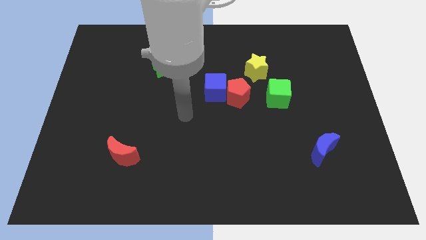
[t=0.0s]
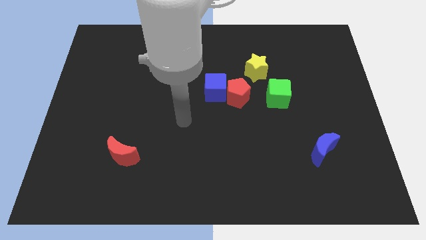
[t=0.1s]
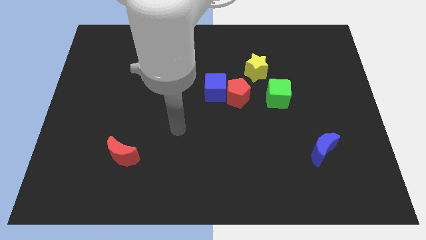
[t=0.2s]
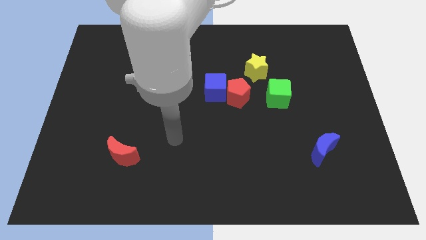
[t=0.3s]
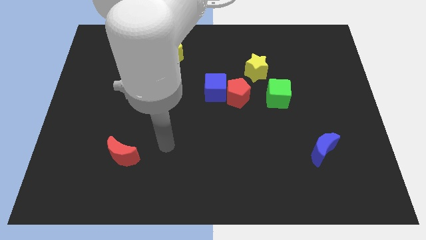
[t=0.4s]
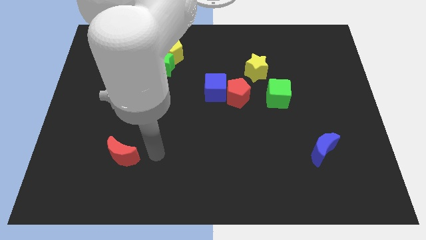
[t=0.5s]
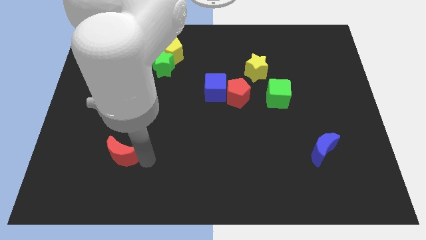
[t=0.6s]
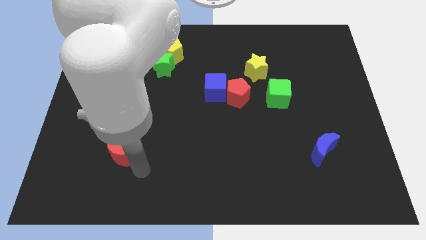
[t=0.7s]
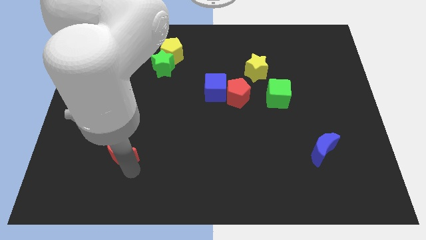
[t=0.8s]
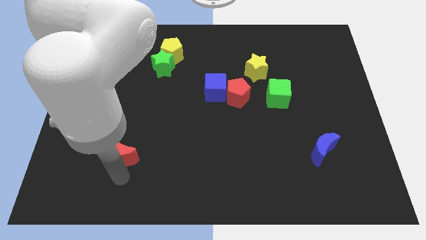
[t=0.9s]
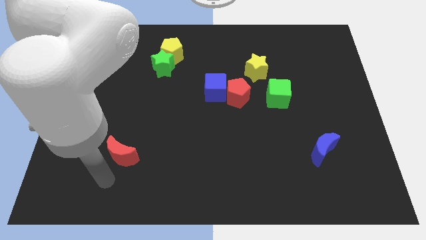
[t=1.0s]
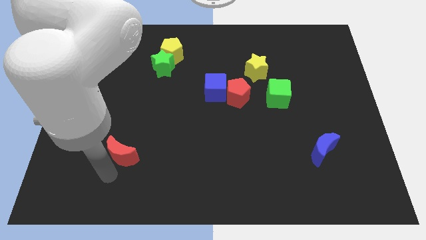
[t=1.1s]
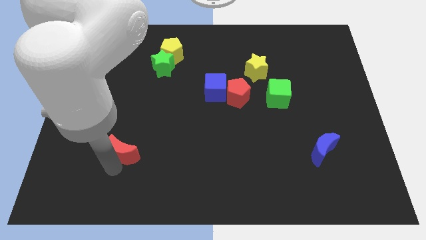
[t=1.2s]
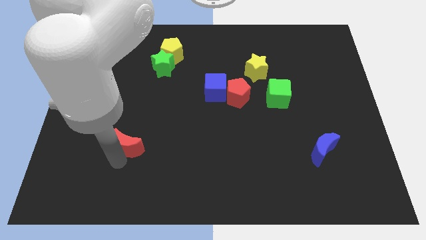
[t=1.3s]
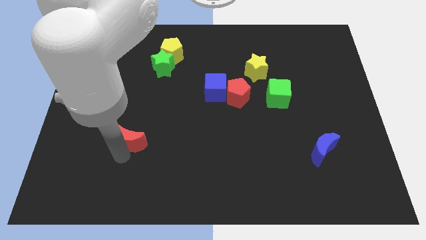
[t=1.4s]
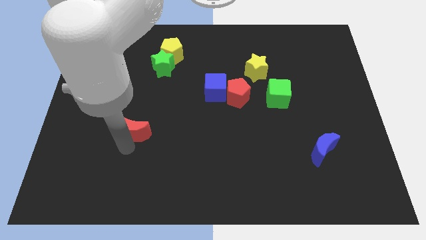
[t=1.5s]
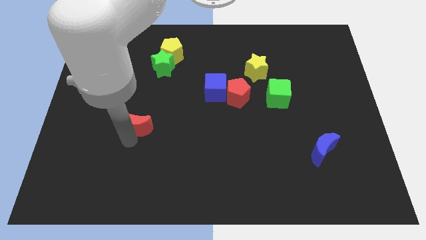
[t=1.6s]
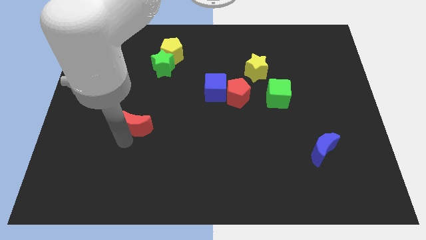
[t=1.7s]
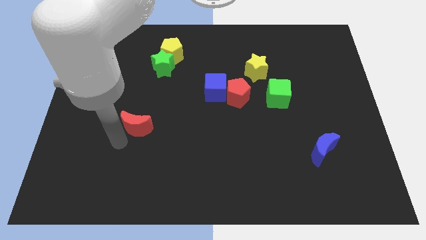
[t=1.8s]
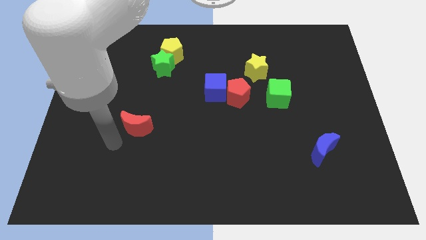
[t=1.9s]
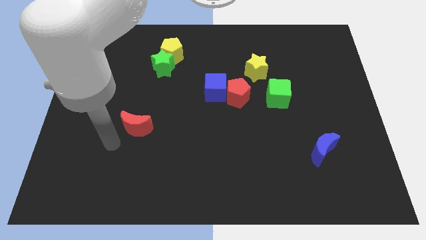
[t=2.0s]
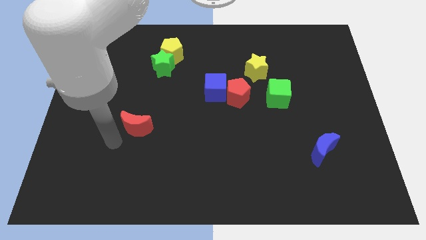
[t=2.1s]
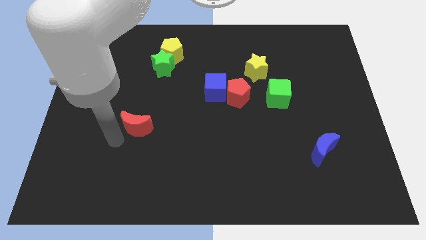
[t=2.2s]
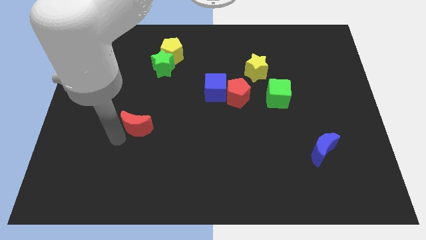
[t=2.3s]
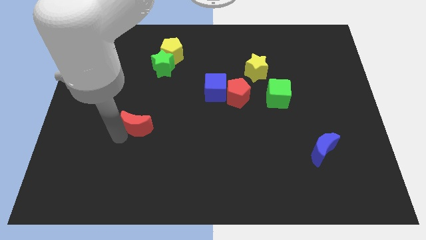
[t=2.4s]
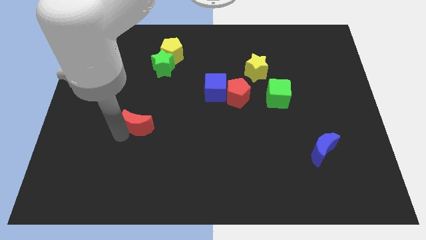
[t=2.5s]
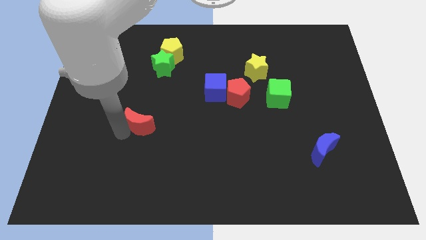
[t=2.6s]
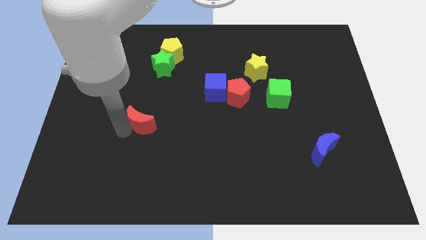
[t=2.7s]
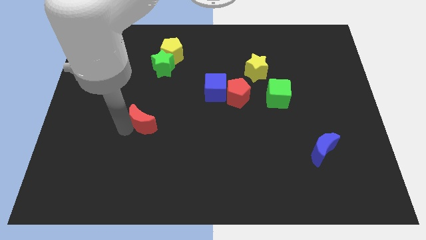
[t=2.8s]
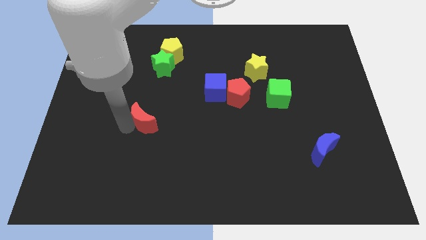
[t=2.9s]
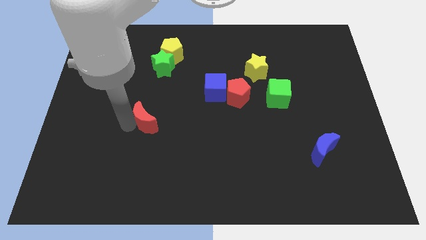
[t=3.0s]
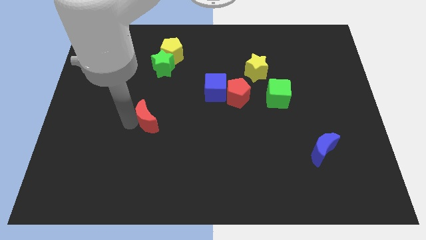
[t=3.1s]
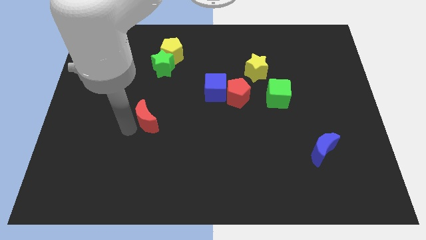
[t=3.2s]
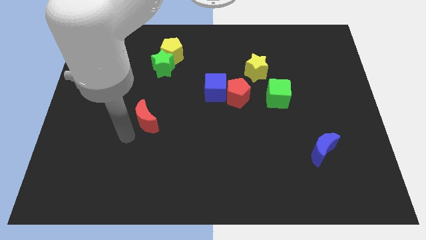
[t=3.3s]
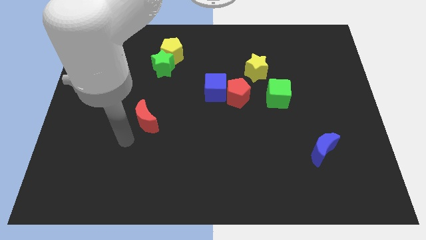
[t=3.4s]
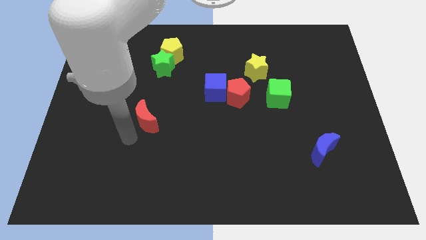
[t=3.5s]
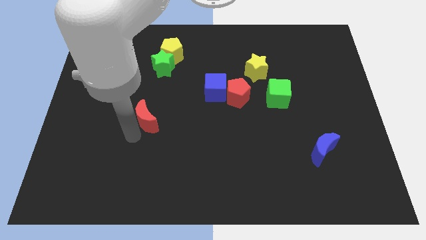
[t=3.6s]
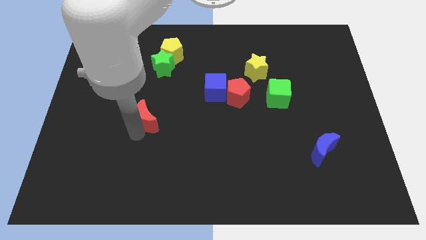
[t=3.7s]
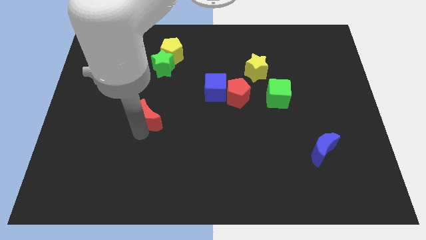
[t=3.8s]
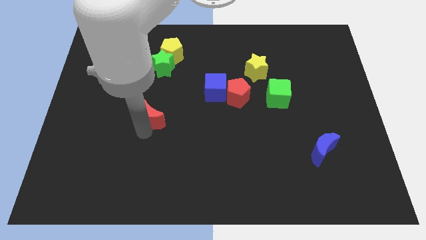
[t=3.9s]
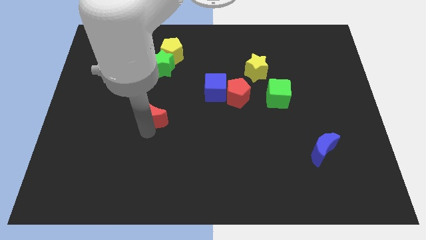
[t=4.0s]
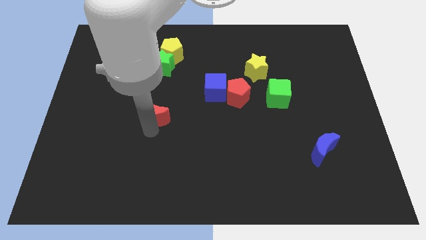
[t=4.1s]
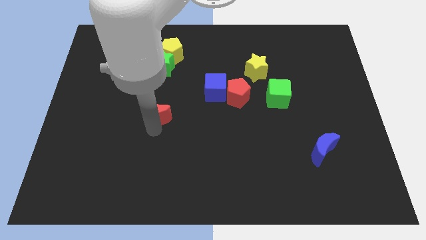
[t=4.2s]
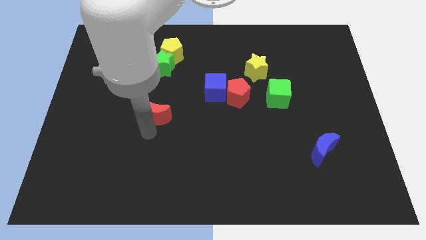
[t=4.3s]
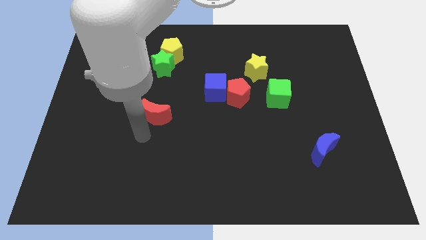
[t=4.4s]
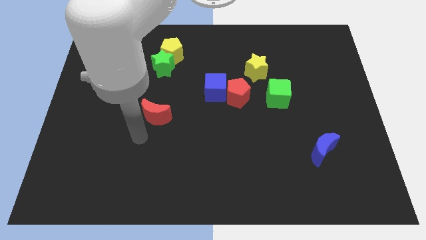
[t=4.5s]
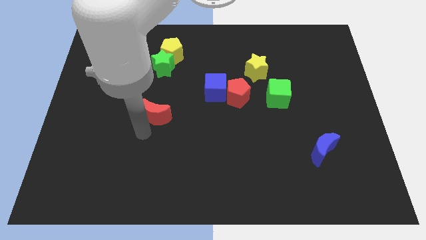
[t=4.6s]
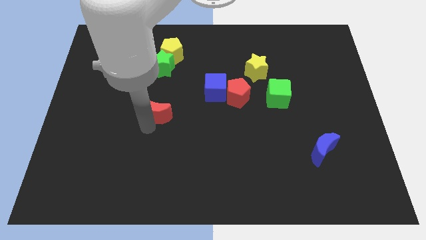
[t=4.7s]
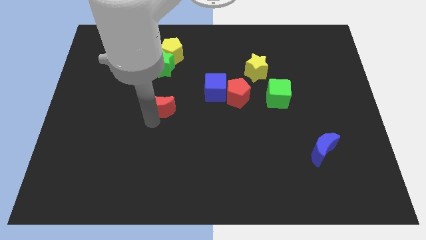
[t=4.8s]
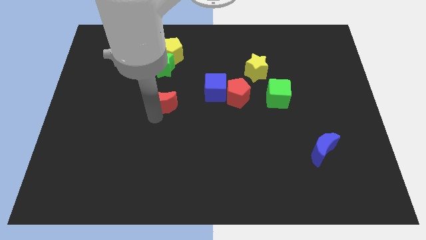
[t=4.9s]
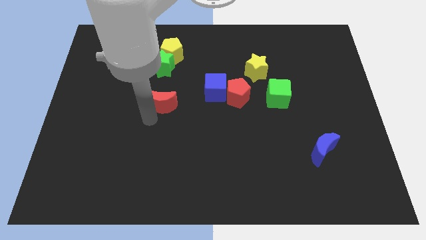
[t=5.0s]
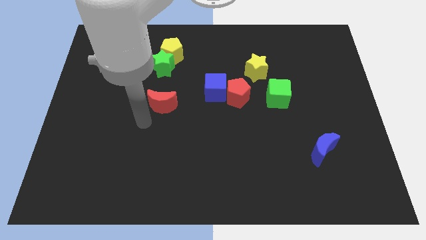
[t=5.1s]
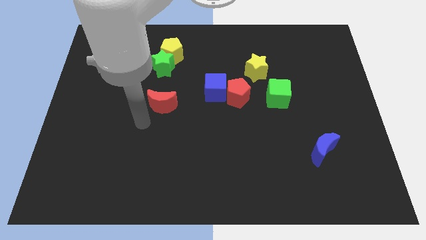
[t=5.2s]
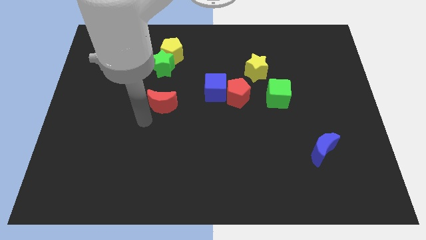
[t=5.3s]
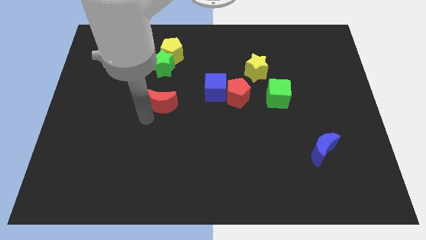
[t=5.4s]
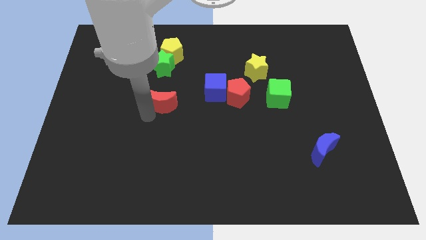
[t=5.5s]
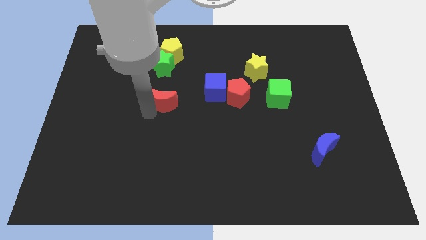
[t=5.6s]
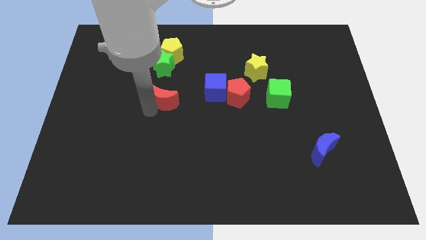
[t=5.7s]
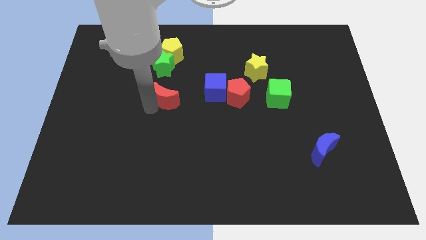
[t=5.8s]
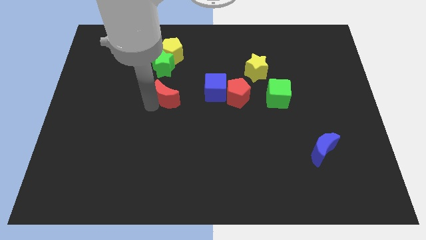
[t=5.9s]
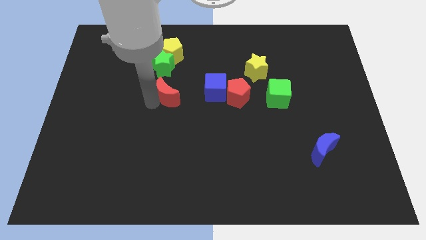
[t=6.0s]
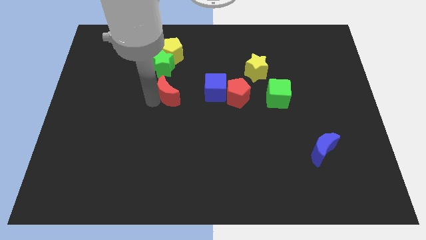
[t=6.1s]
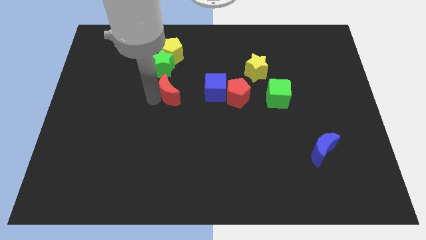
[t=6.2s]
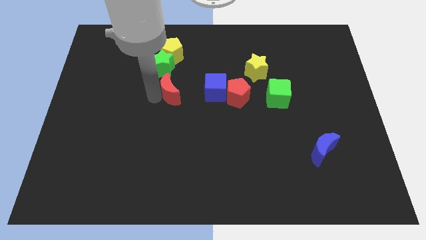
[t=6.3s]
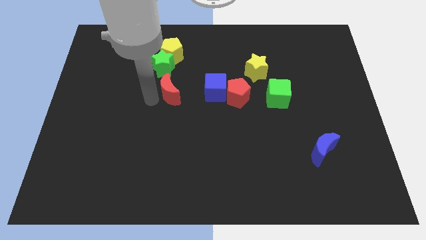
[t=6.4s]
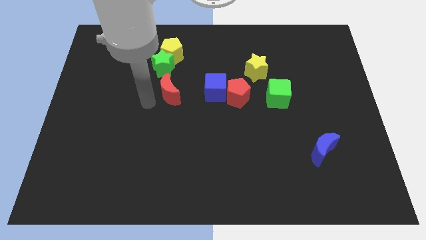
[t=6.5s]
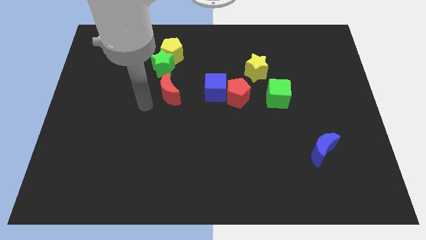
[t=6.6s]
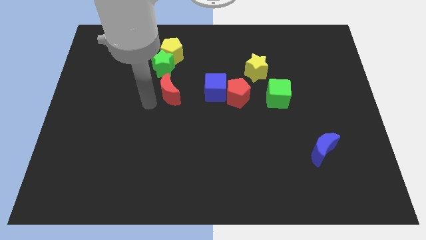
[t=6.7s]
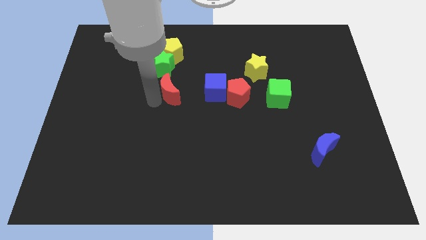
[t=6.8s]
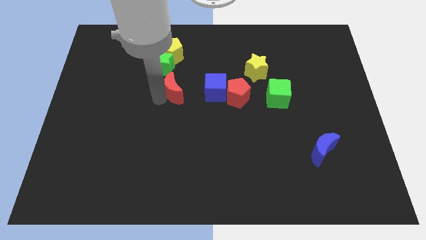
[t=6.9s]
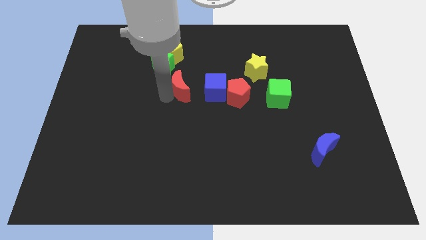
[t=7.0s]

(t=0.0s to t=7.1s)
push the red moon up and right

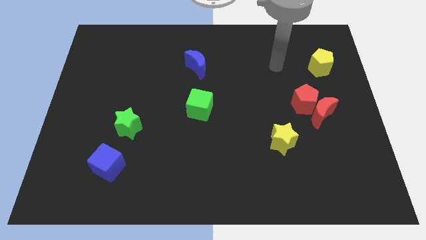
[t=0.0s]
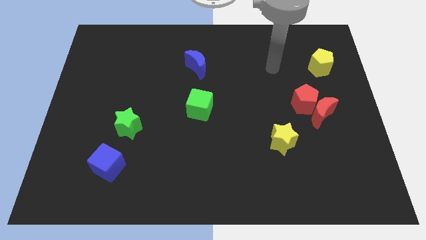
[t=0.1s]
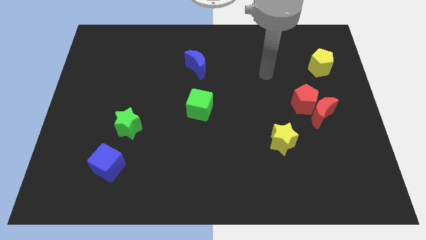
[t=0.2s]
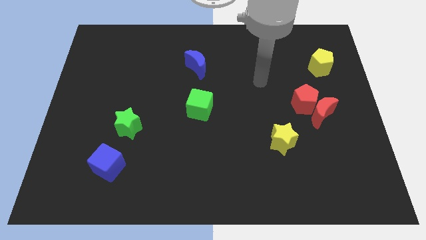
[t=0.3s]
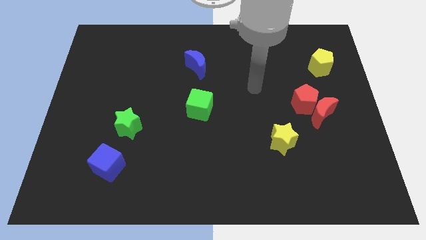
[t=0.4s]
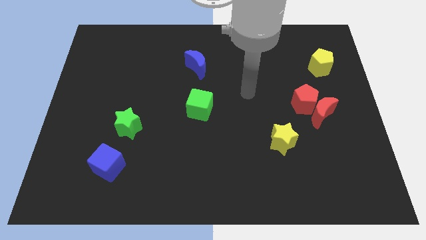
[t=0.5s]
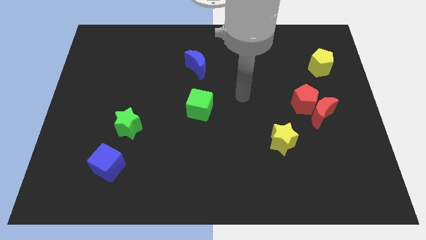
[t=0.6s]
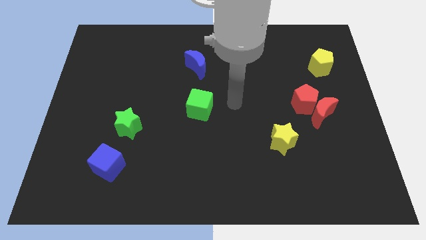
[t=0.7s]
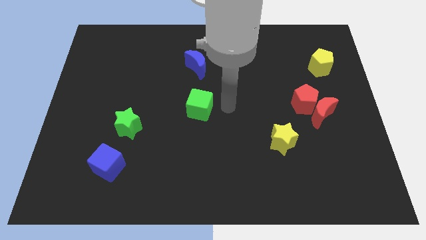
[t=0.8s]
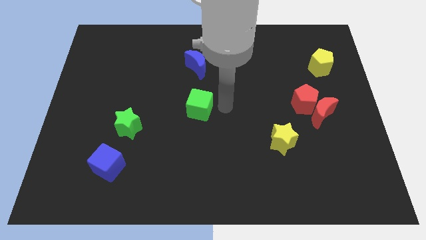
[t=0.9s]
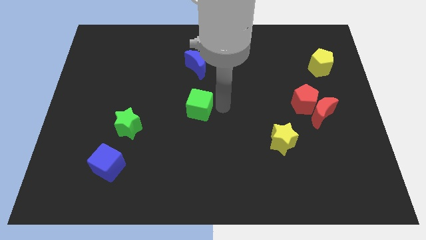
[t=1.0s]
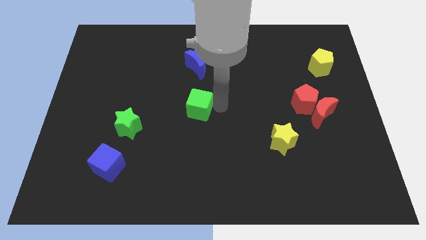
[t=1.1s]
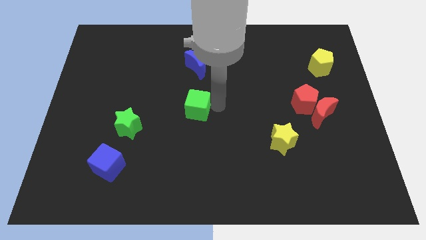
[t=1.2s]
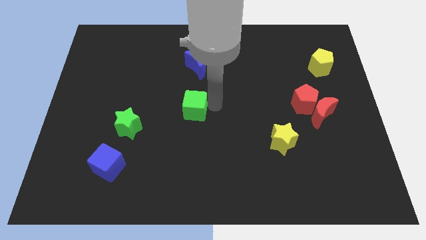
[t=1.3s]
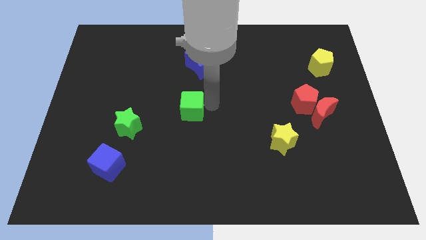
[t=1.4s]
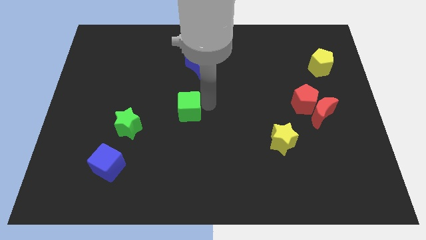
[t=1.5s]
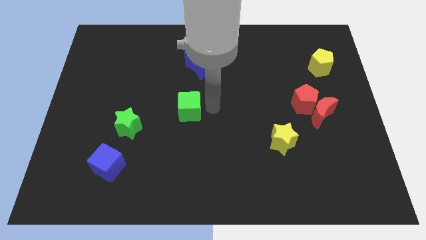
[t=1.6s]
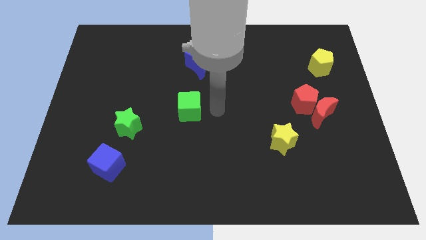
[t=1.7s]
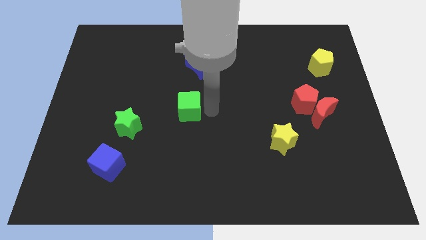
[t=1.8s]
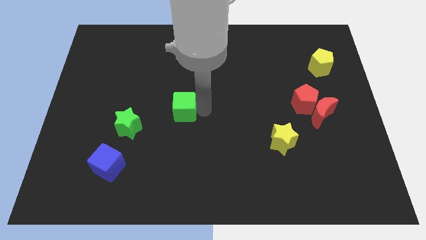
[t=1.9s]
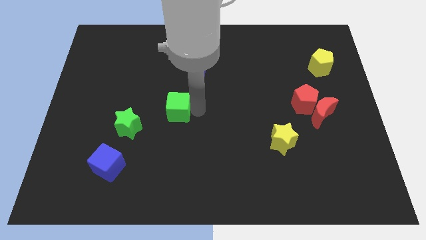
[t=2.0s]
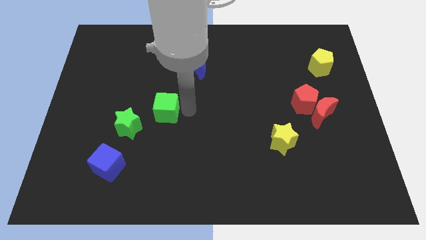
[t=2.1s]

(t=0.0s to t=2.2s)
move the green cube to the left somewhat
